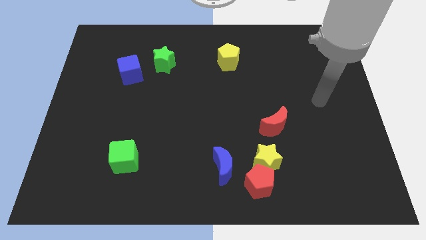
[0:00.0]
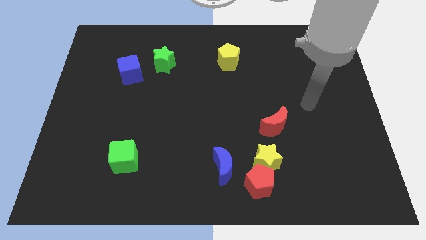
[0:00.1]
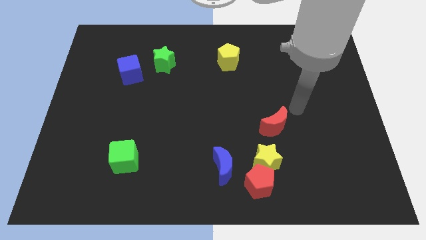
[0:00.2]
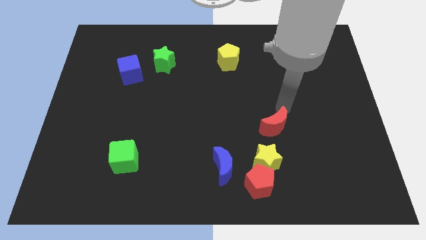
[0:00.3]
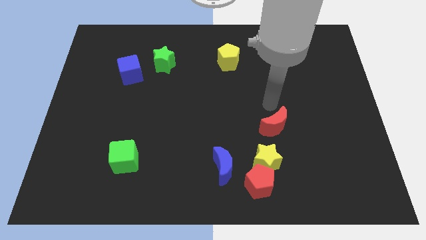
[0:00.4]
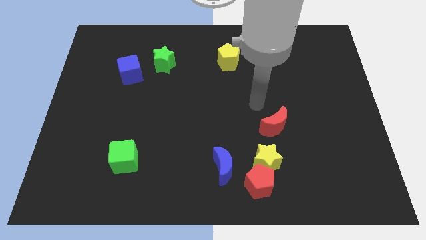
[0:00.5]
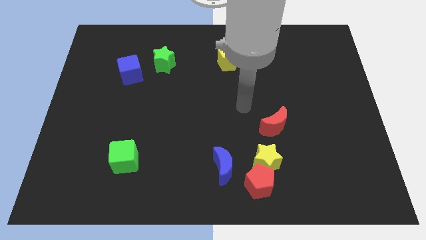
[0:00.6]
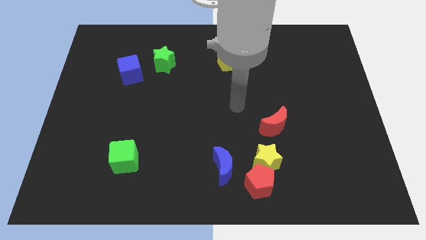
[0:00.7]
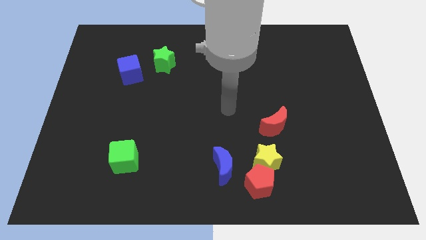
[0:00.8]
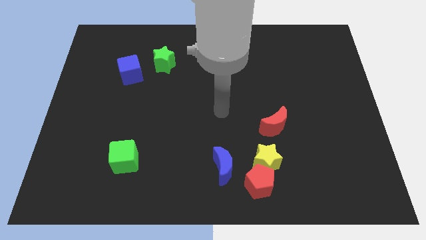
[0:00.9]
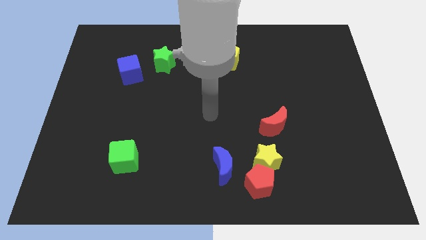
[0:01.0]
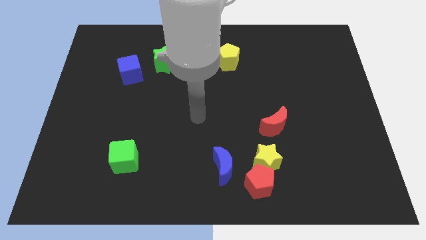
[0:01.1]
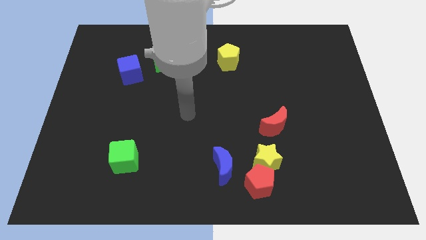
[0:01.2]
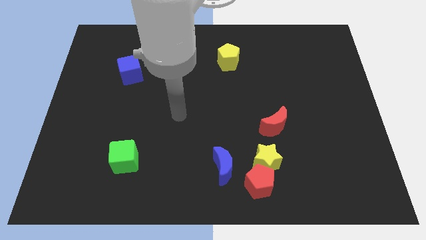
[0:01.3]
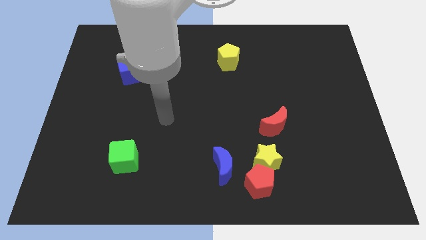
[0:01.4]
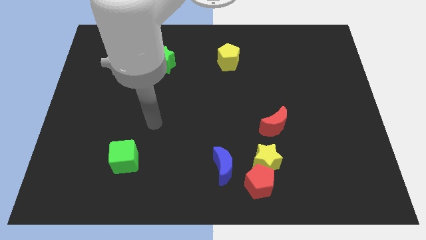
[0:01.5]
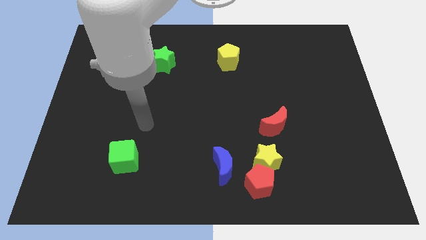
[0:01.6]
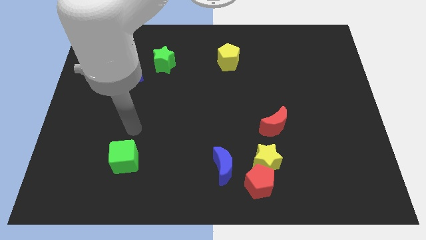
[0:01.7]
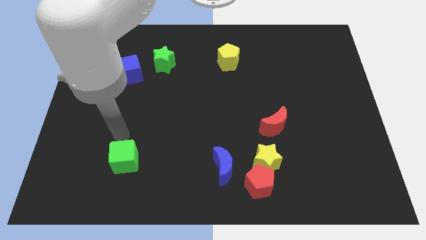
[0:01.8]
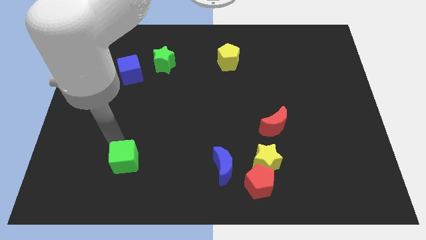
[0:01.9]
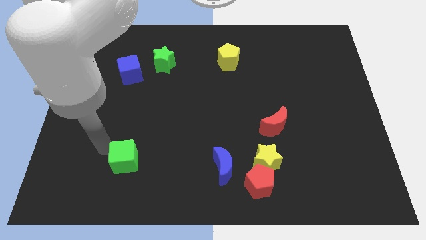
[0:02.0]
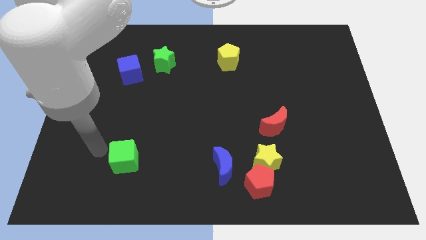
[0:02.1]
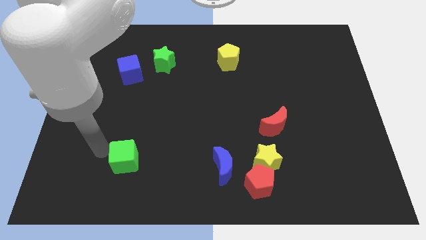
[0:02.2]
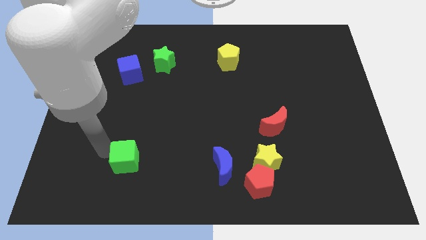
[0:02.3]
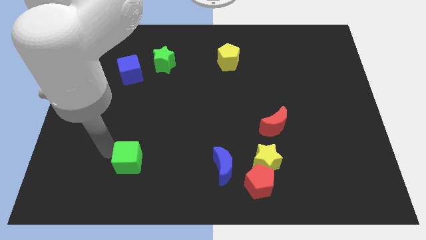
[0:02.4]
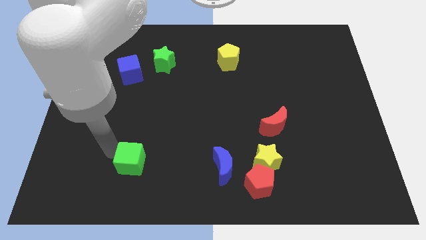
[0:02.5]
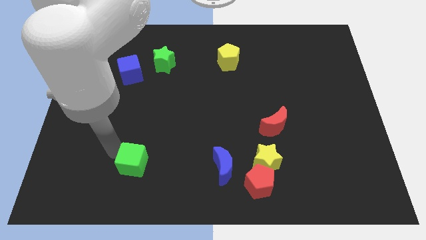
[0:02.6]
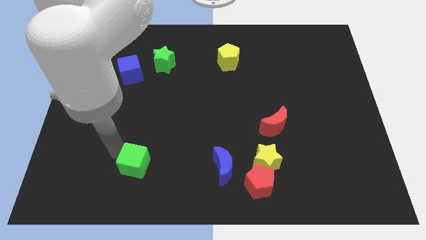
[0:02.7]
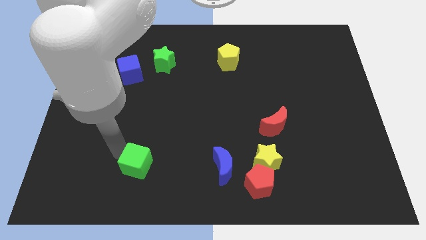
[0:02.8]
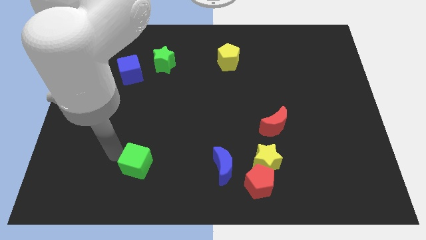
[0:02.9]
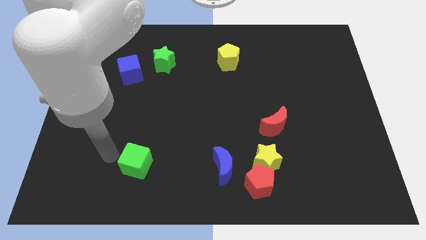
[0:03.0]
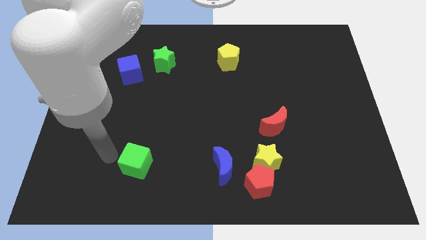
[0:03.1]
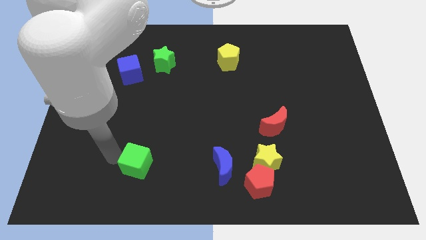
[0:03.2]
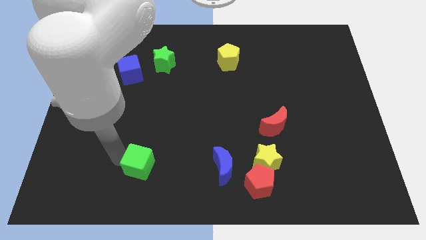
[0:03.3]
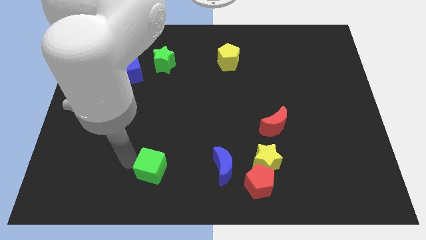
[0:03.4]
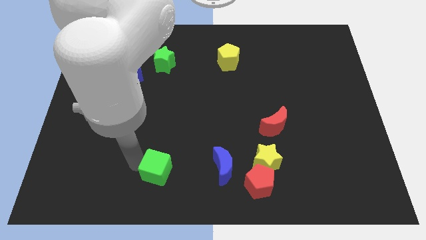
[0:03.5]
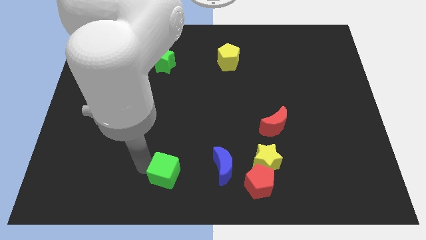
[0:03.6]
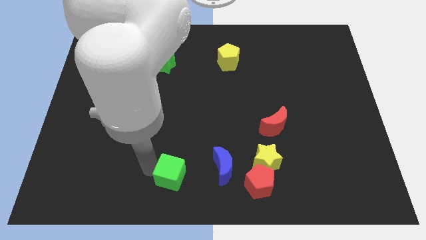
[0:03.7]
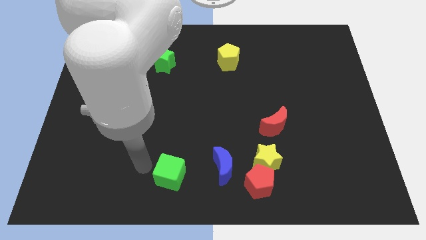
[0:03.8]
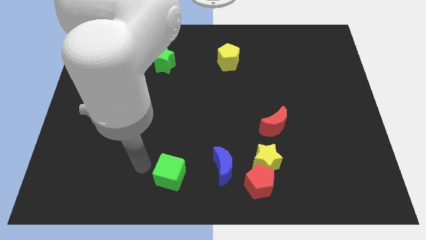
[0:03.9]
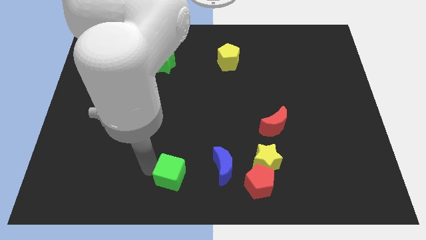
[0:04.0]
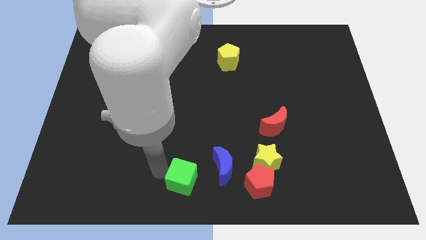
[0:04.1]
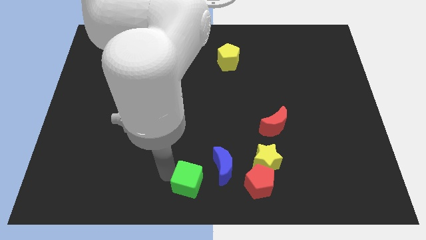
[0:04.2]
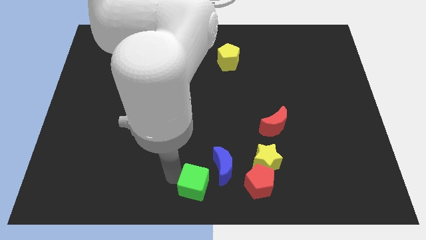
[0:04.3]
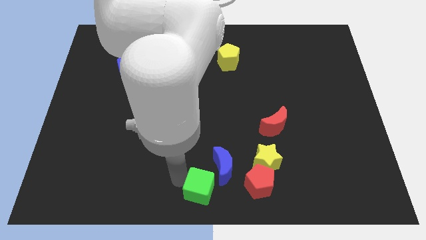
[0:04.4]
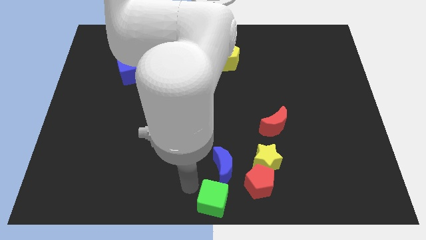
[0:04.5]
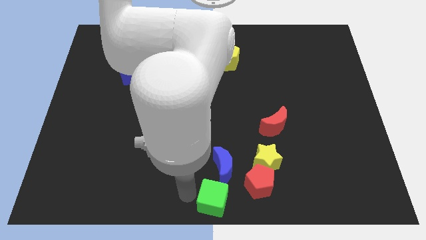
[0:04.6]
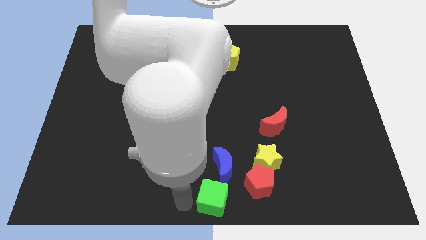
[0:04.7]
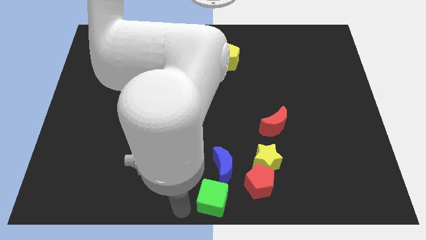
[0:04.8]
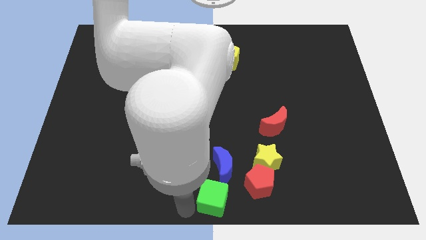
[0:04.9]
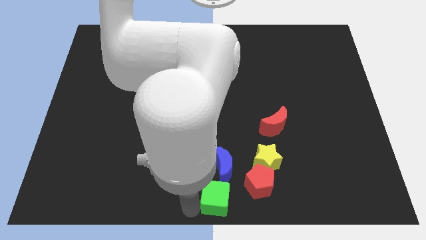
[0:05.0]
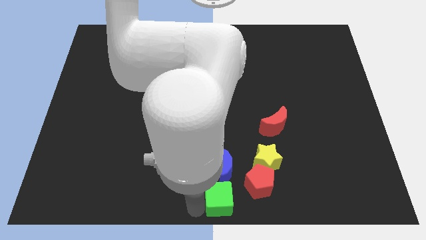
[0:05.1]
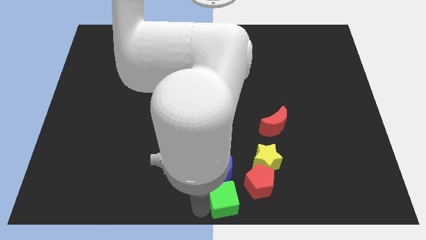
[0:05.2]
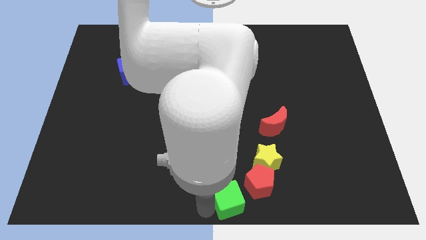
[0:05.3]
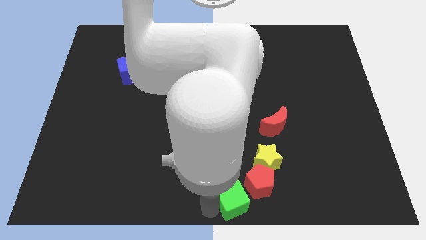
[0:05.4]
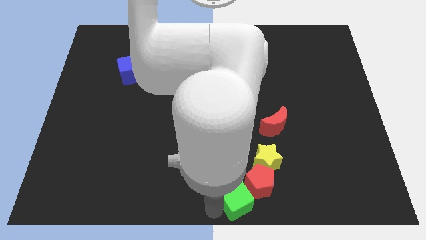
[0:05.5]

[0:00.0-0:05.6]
push the green cube to the red pentagon

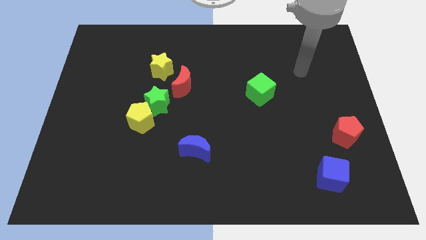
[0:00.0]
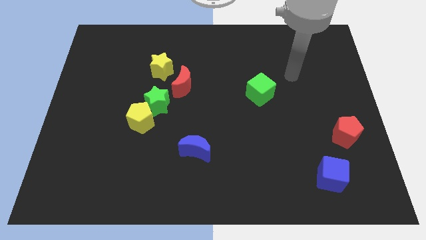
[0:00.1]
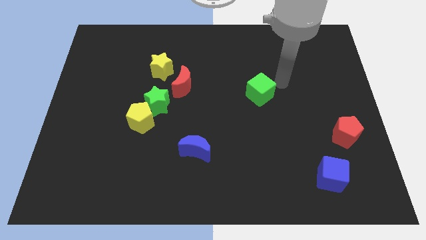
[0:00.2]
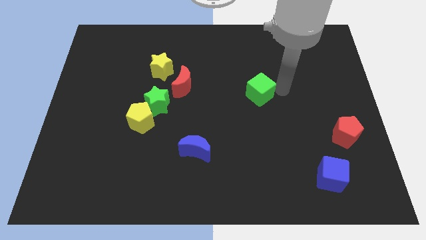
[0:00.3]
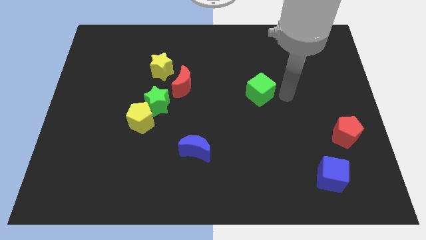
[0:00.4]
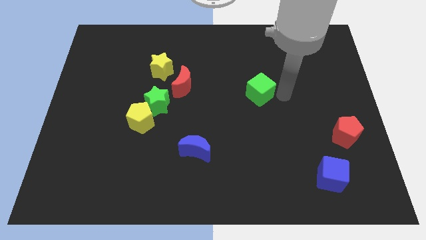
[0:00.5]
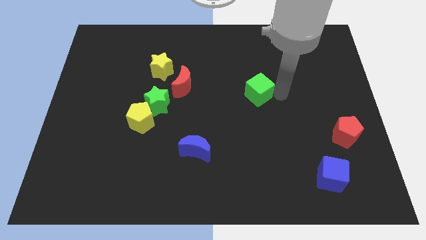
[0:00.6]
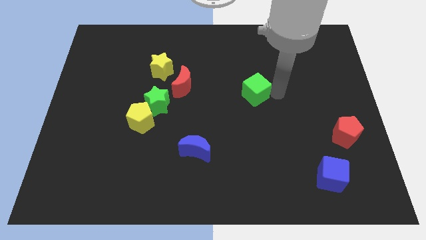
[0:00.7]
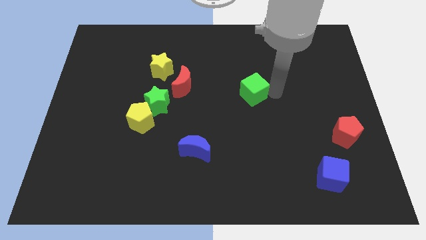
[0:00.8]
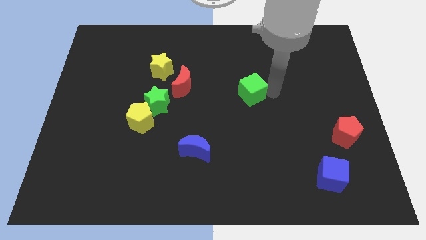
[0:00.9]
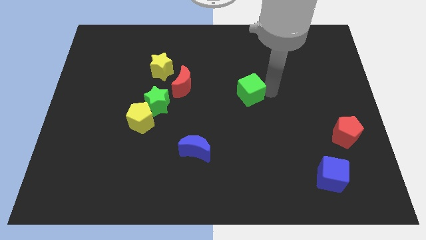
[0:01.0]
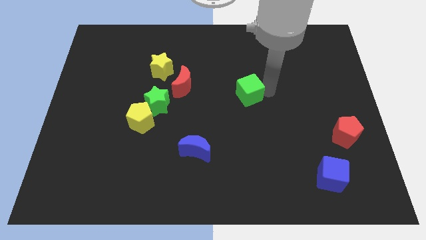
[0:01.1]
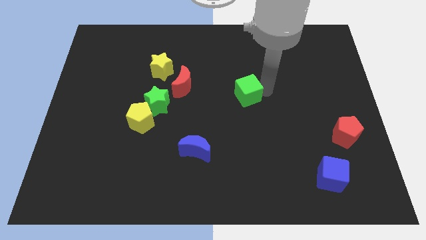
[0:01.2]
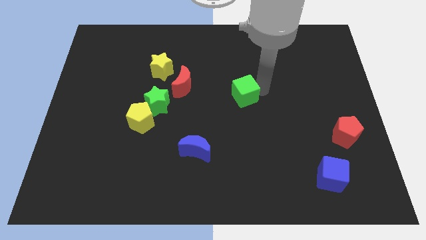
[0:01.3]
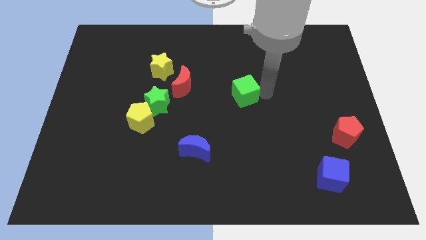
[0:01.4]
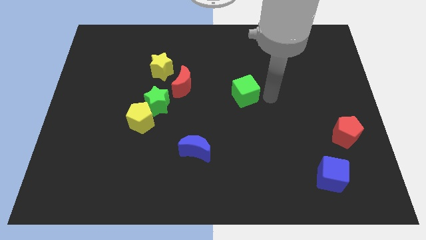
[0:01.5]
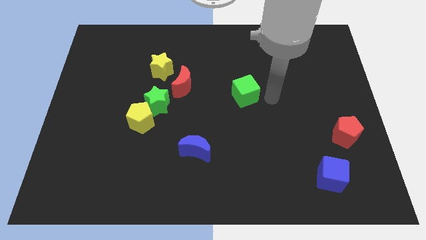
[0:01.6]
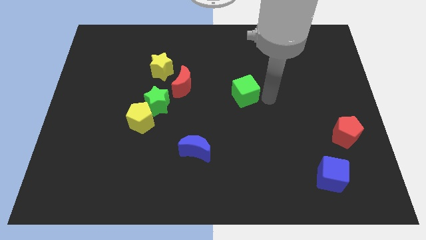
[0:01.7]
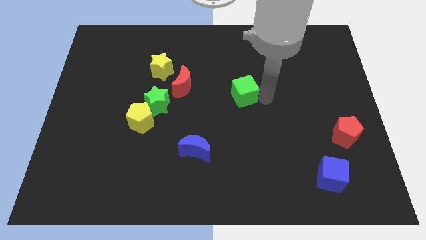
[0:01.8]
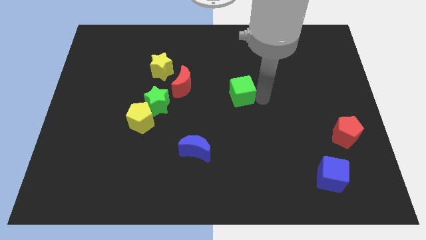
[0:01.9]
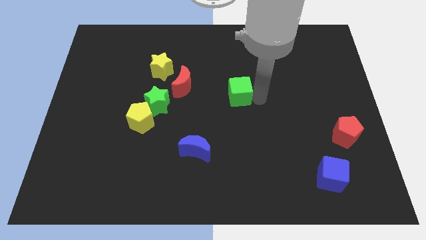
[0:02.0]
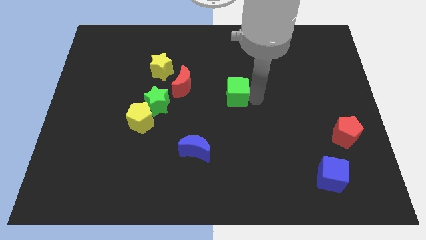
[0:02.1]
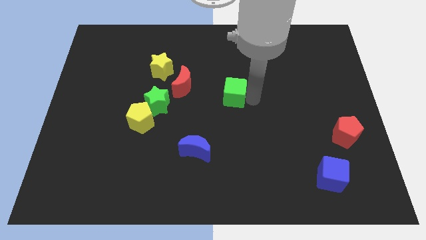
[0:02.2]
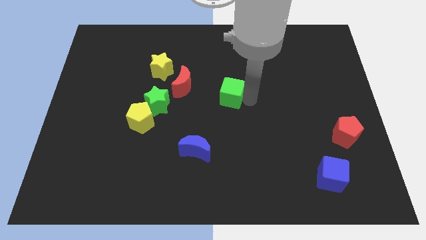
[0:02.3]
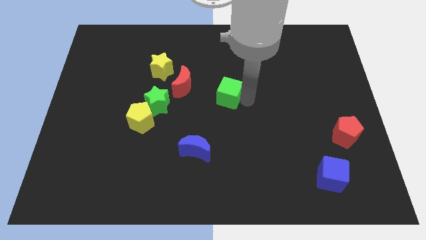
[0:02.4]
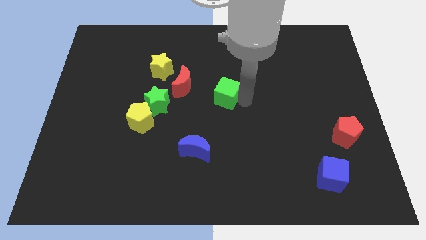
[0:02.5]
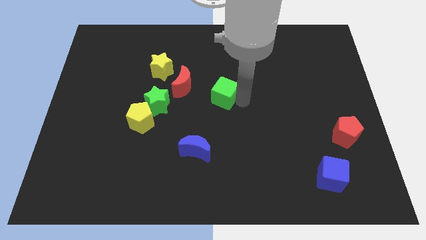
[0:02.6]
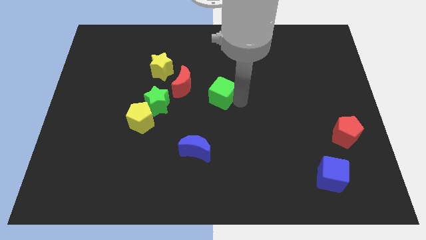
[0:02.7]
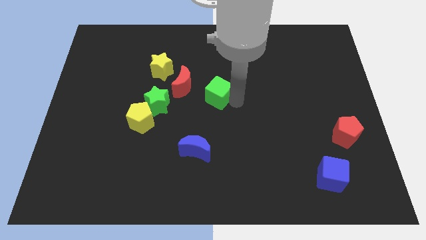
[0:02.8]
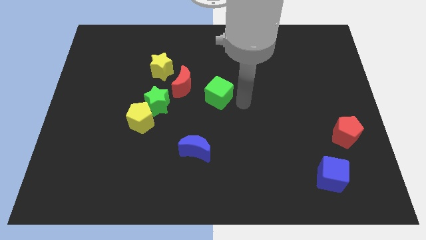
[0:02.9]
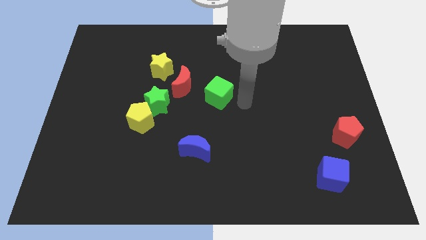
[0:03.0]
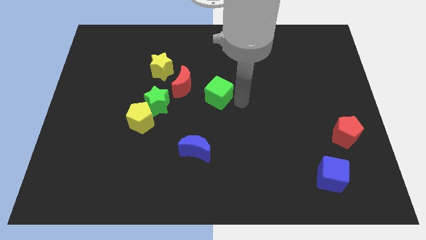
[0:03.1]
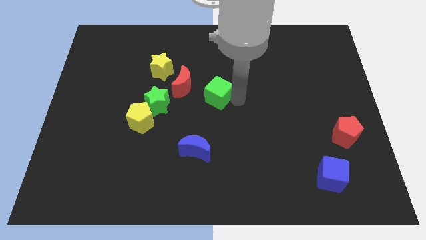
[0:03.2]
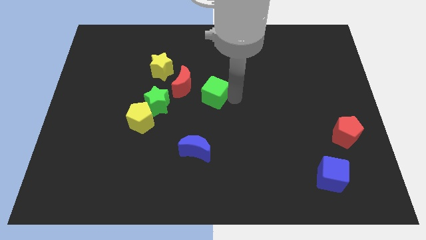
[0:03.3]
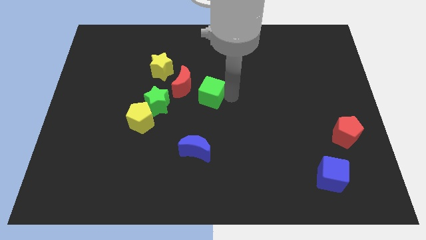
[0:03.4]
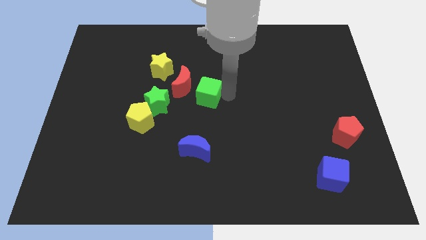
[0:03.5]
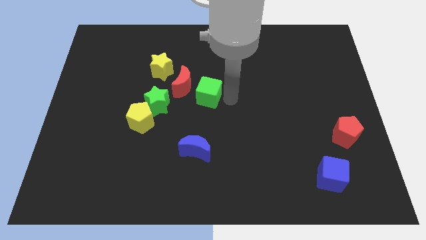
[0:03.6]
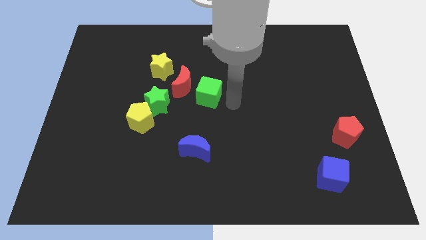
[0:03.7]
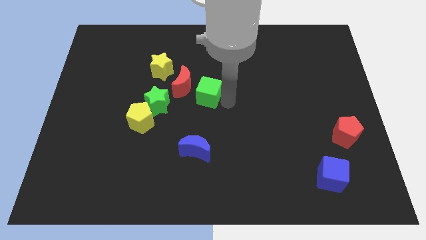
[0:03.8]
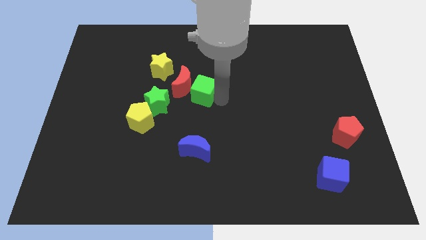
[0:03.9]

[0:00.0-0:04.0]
push the green cube next to the red moon
